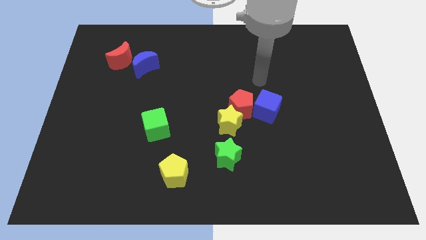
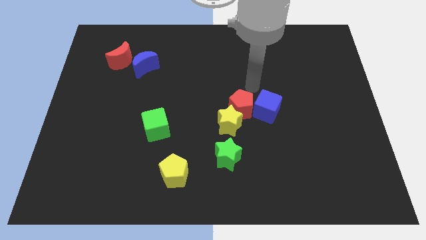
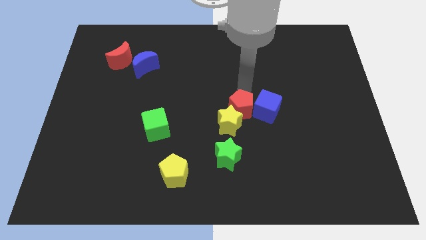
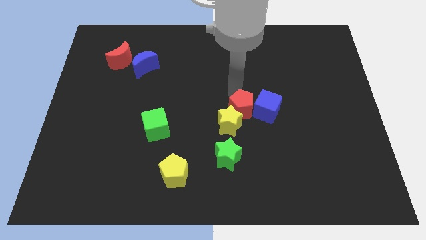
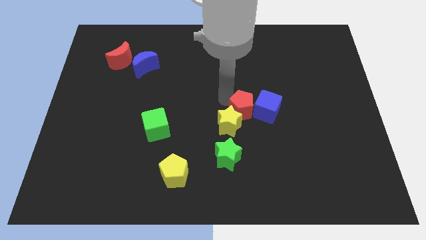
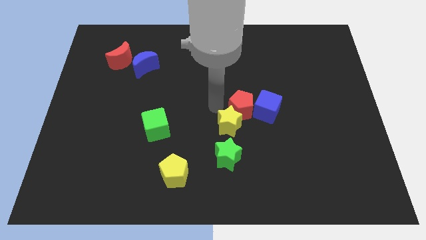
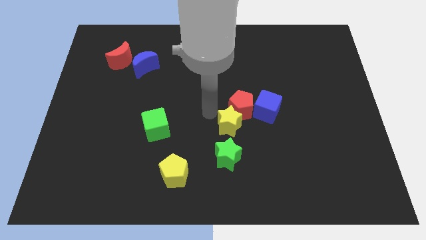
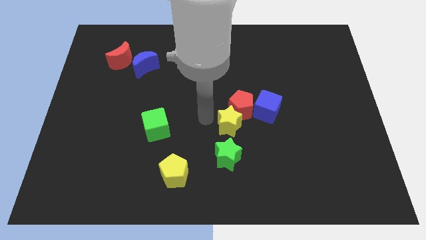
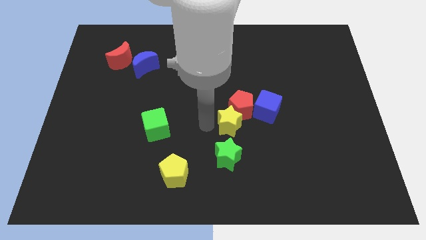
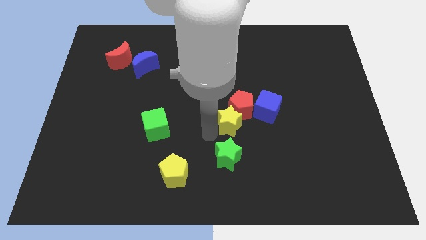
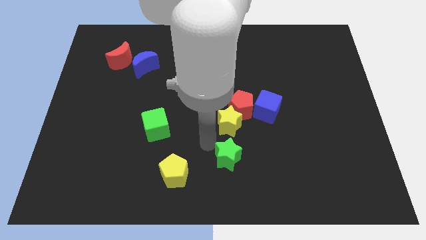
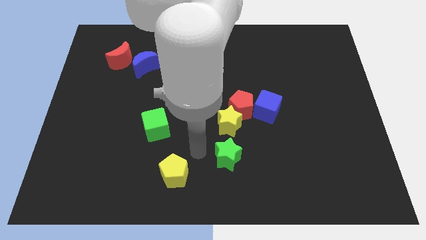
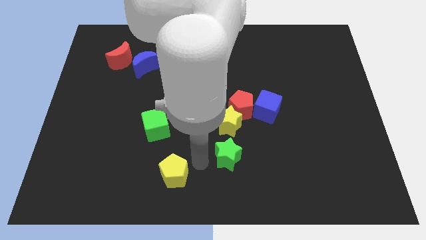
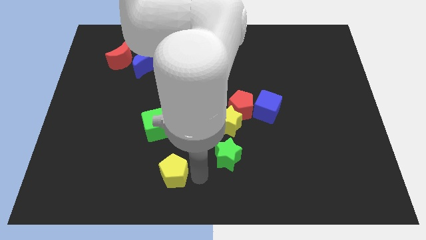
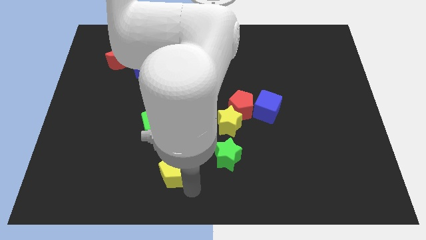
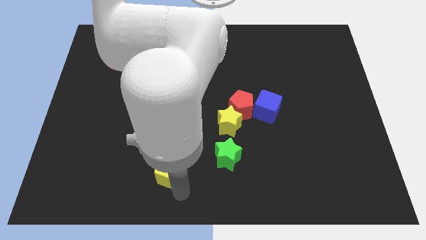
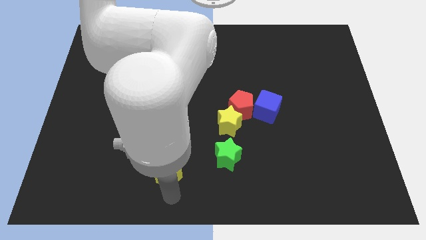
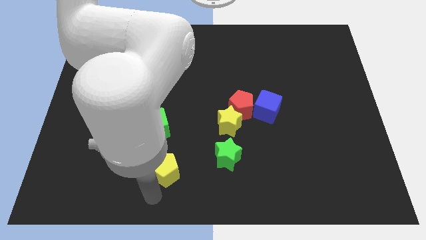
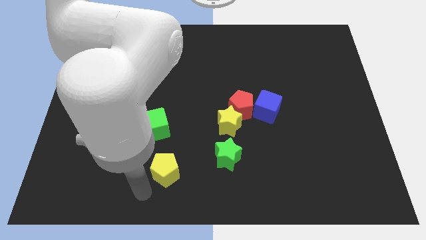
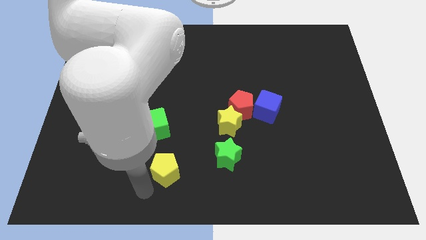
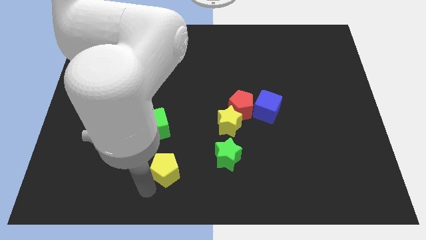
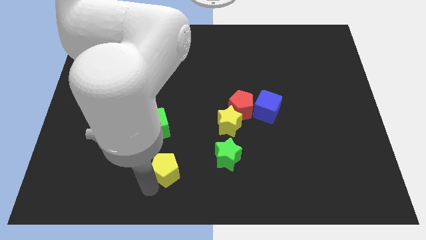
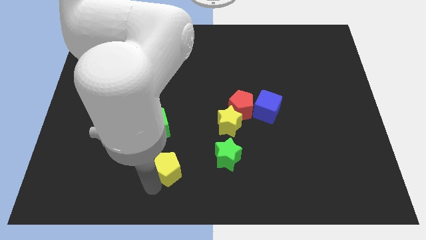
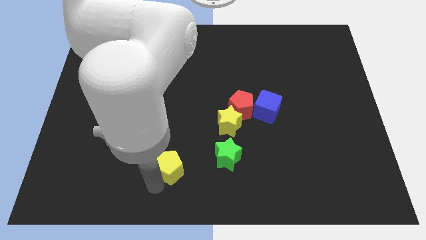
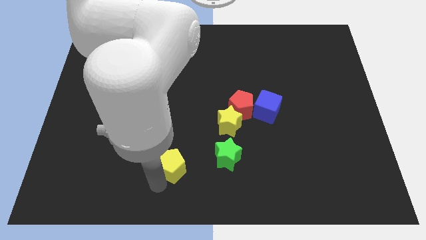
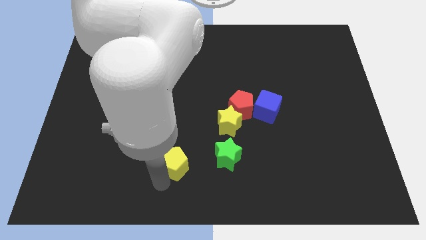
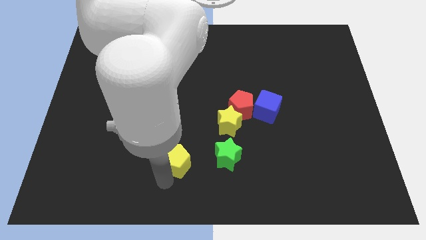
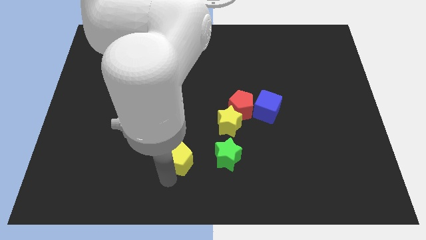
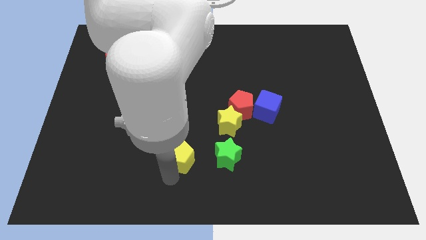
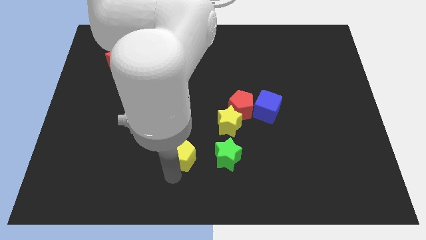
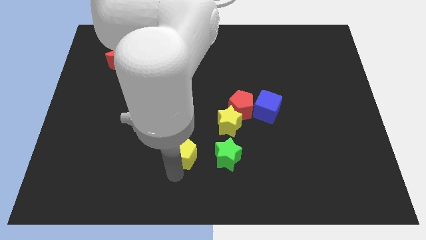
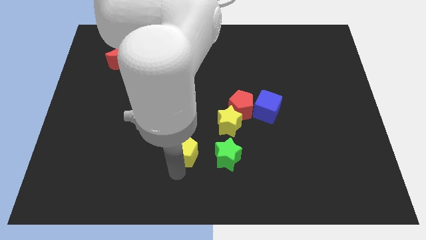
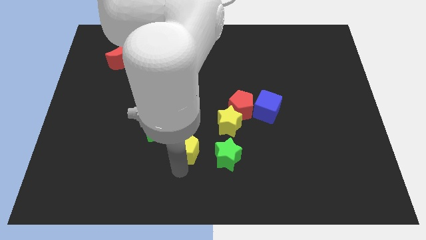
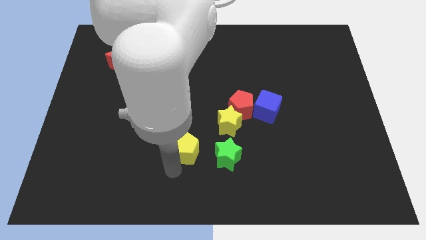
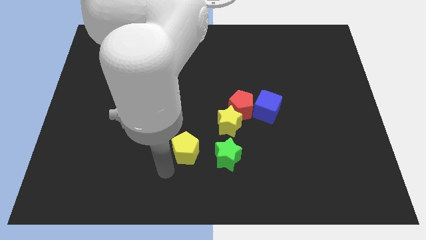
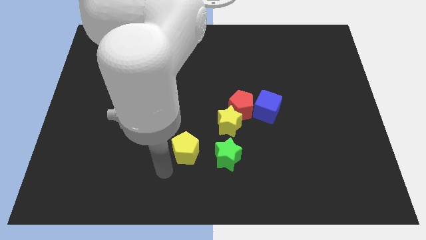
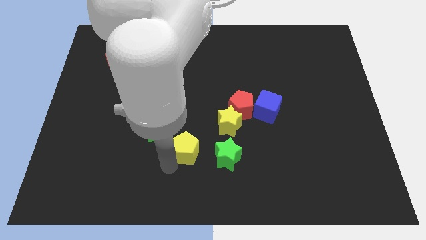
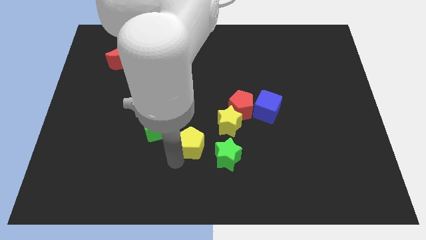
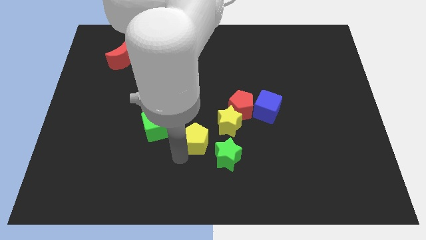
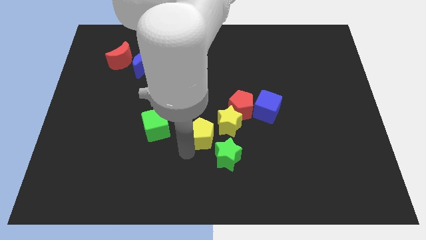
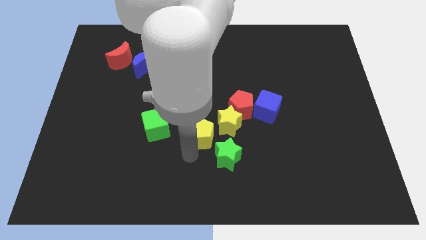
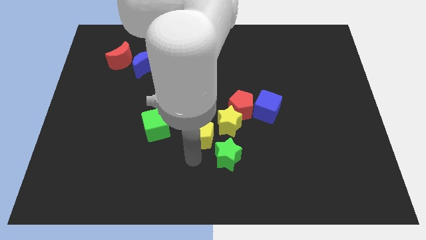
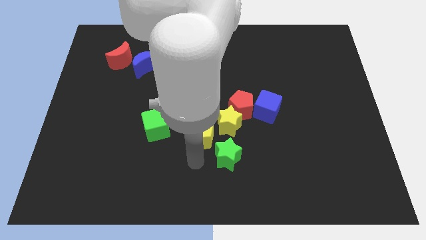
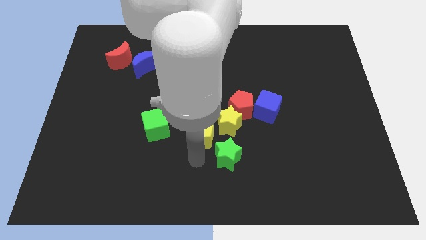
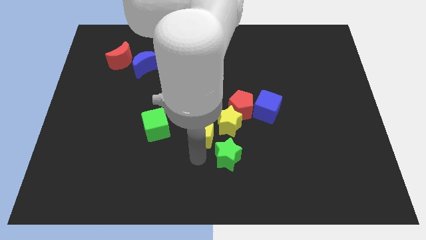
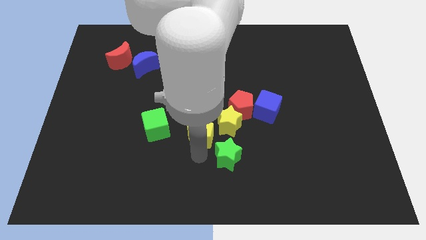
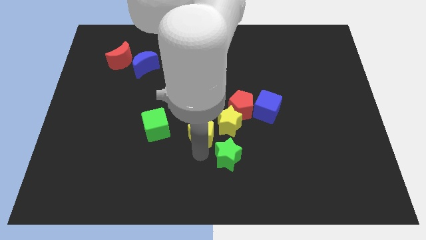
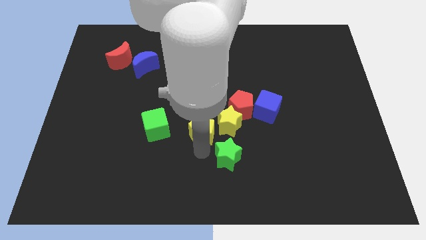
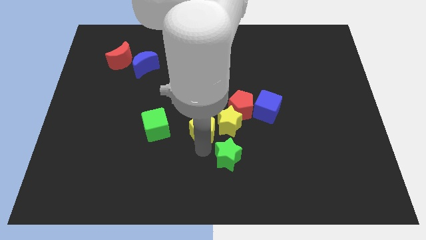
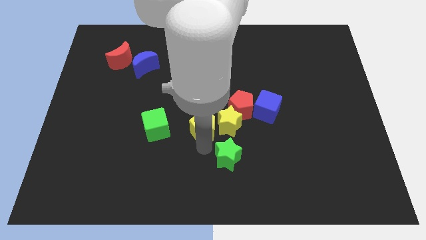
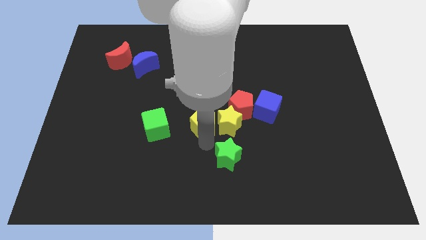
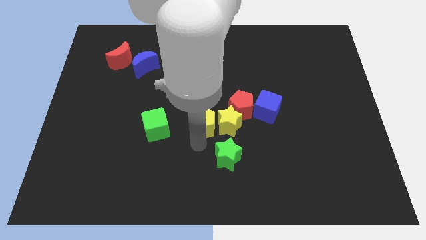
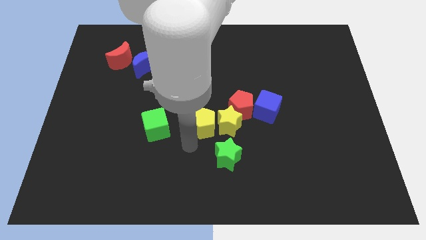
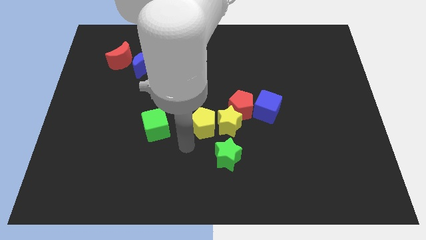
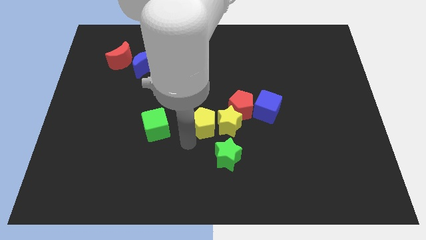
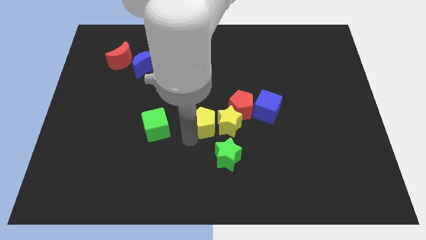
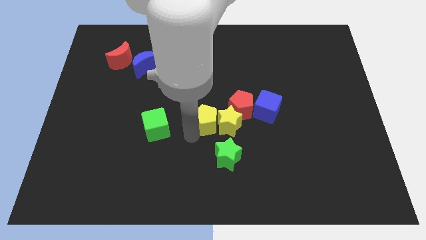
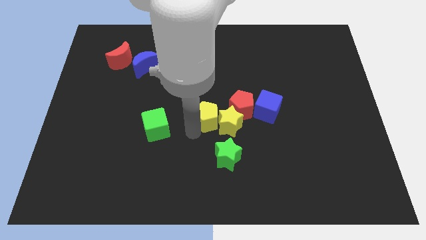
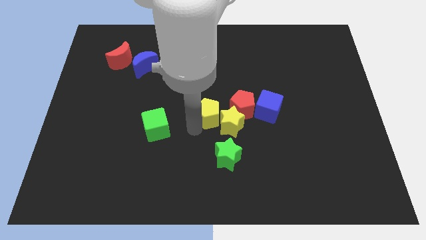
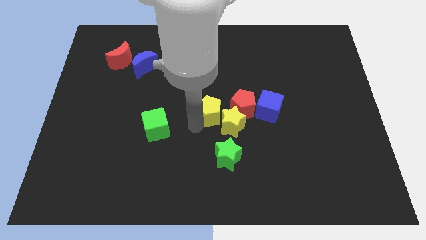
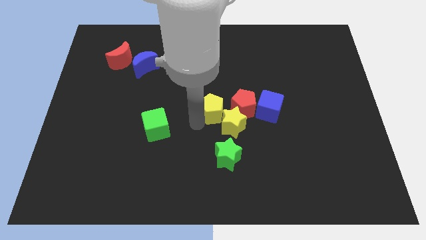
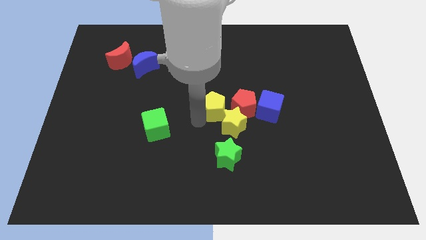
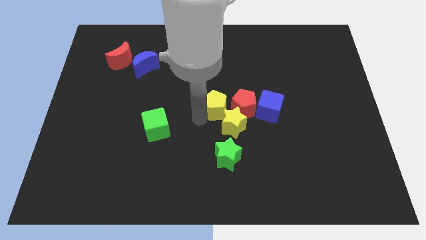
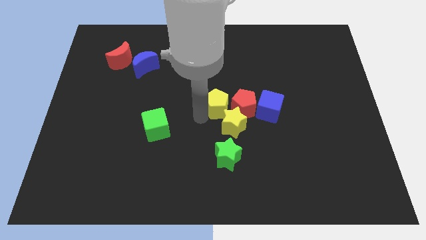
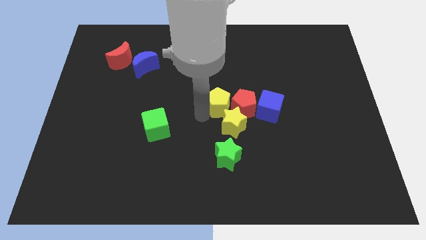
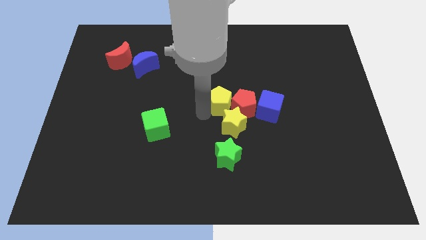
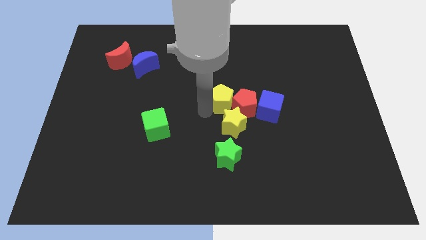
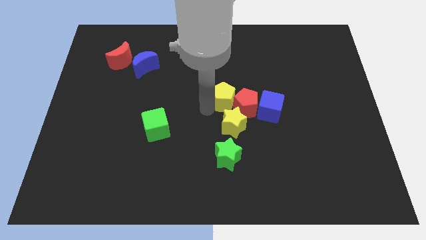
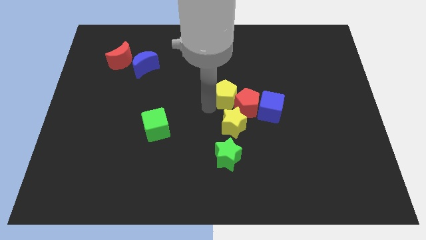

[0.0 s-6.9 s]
push the yellow pentagon up and right

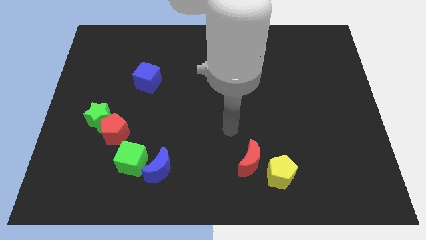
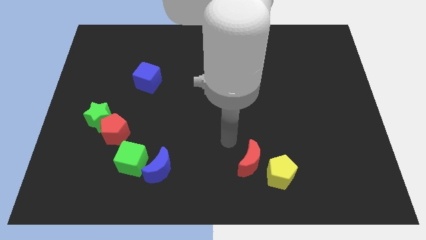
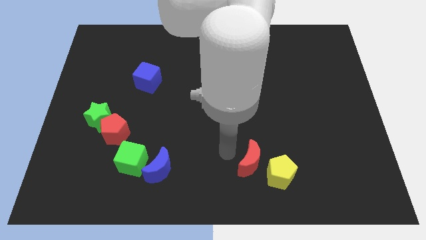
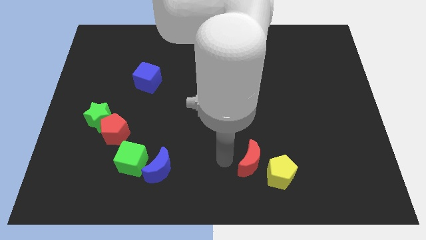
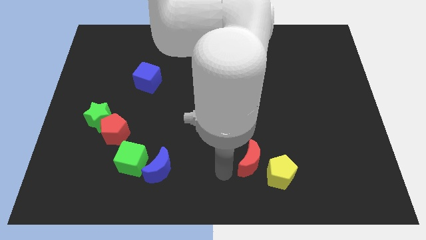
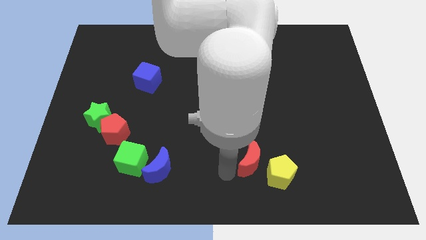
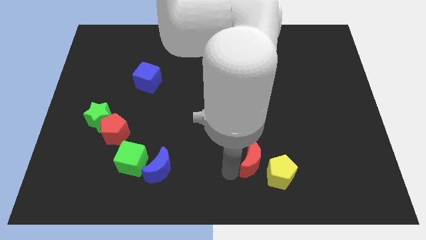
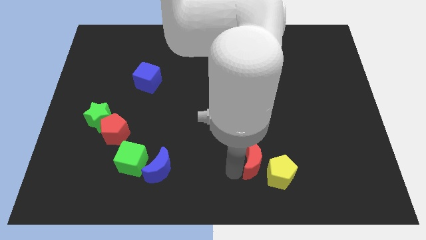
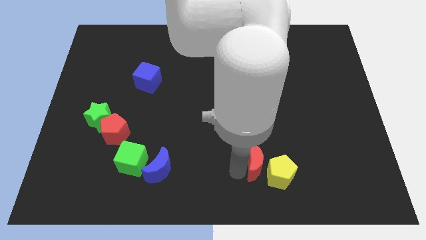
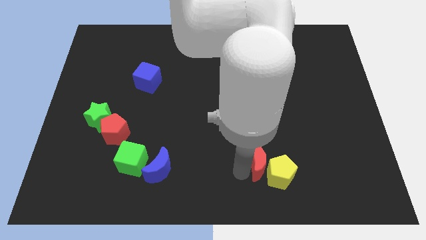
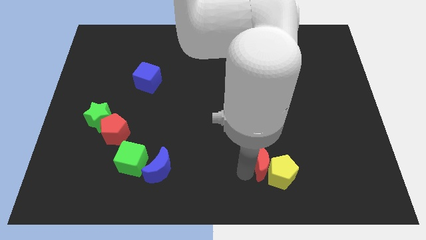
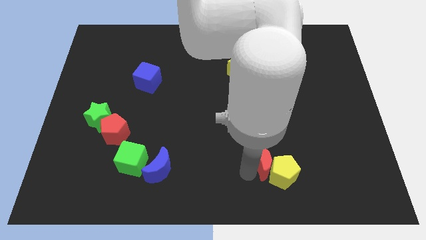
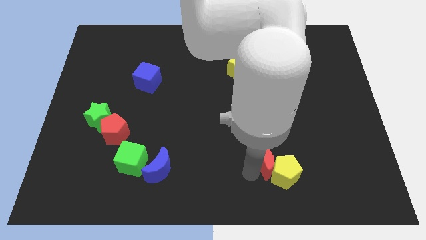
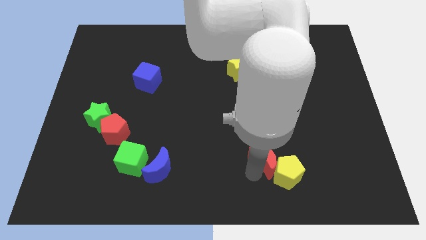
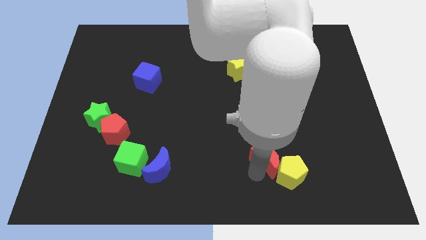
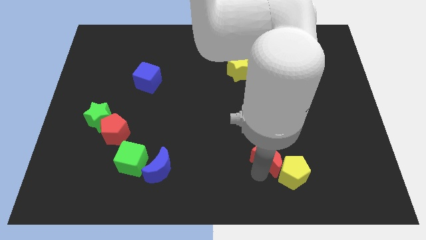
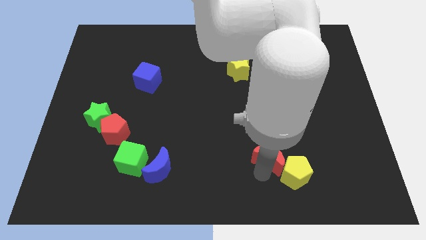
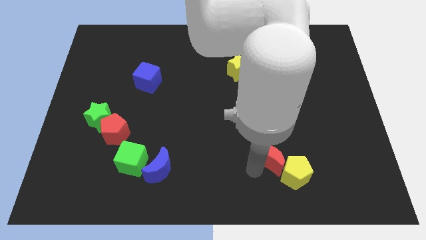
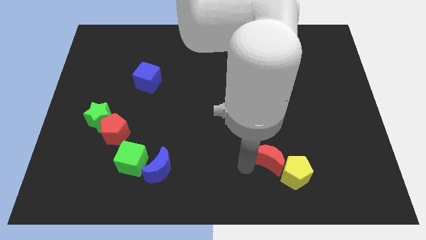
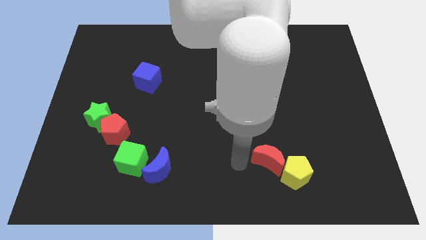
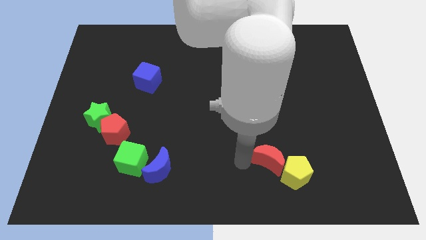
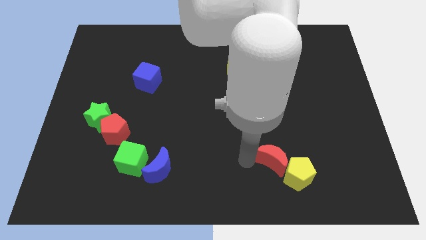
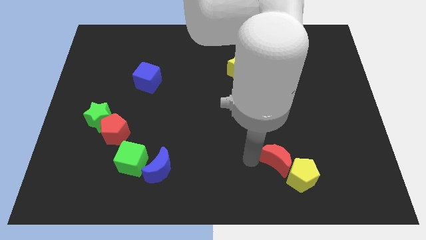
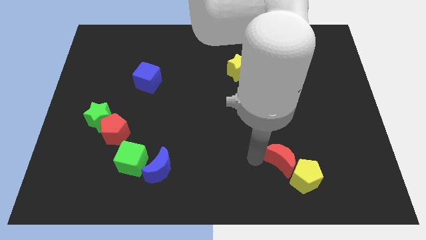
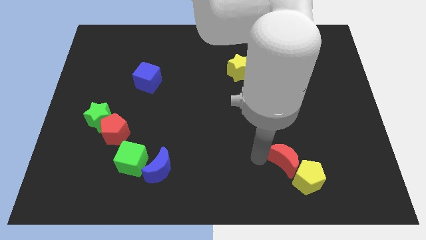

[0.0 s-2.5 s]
slide the red moon right a little bit
